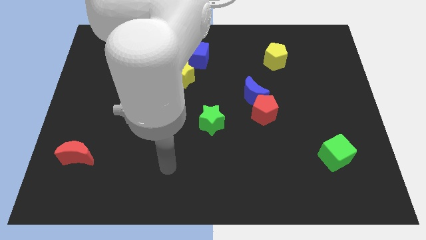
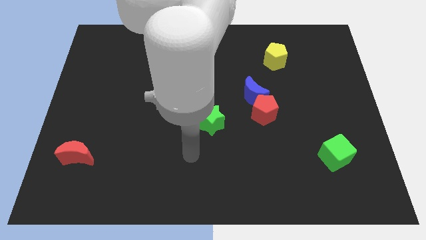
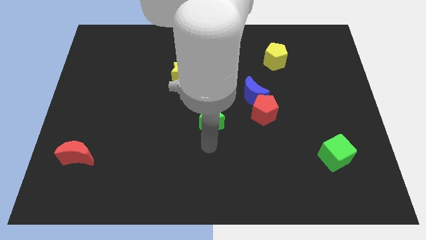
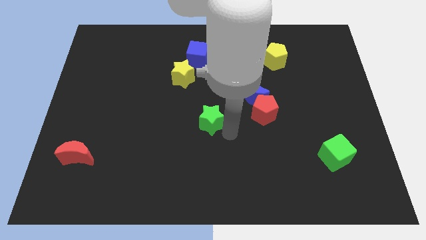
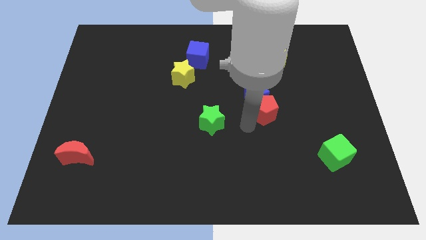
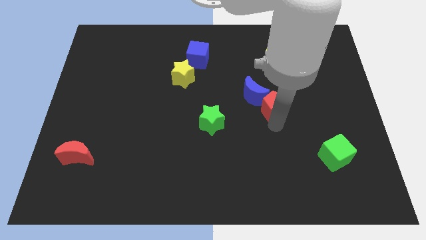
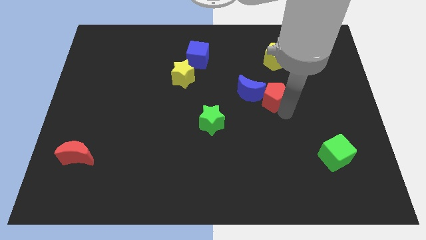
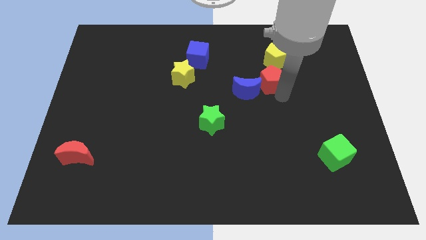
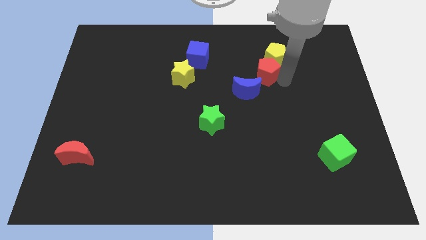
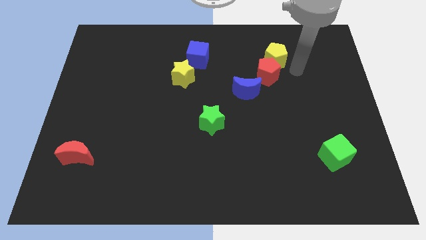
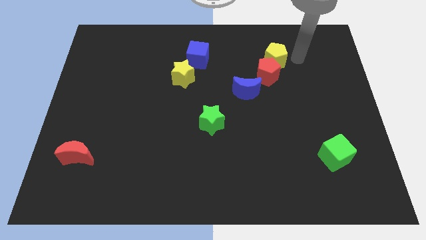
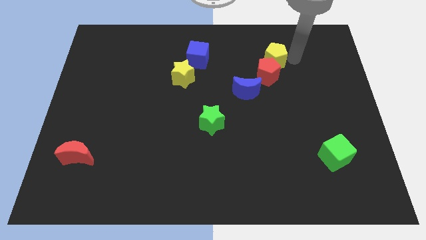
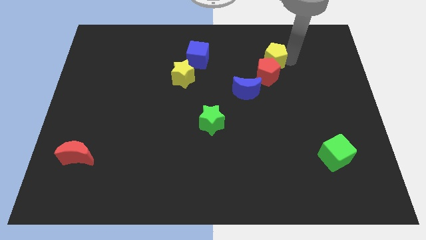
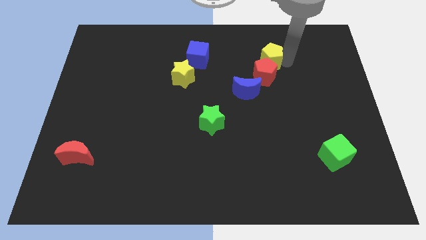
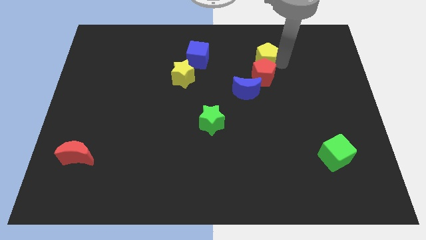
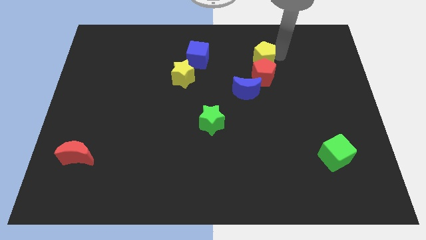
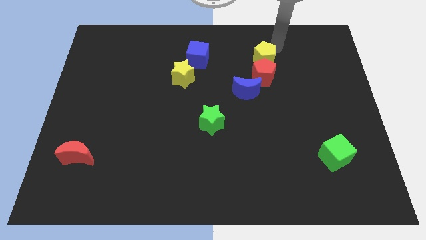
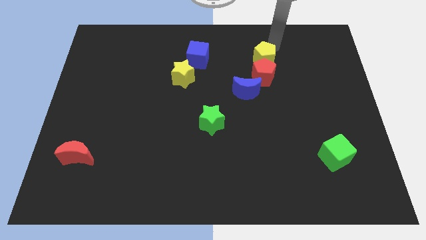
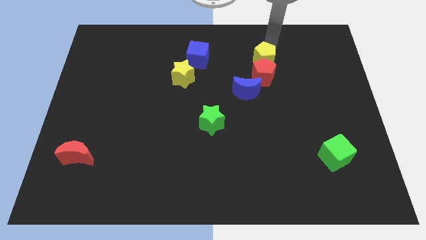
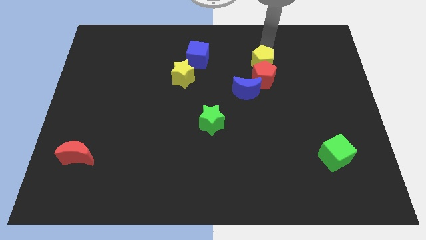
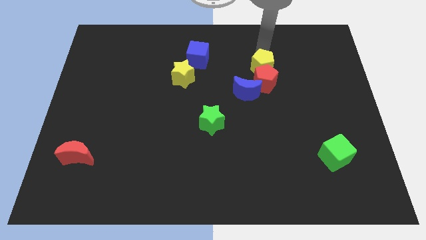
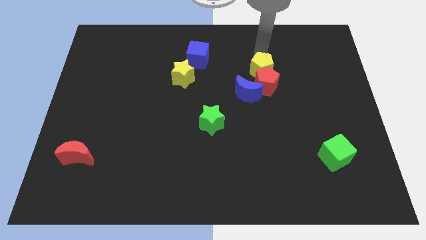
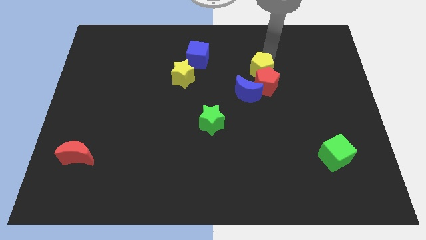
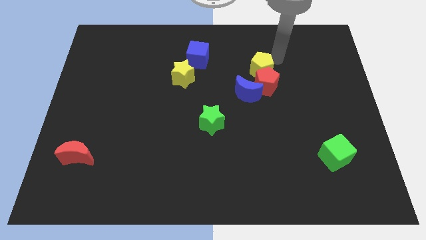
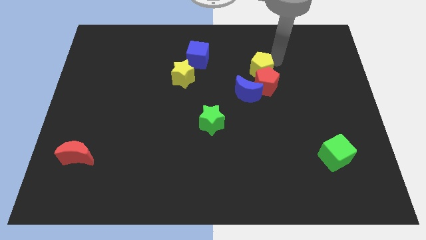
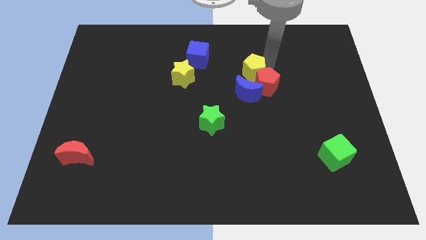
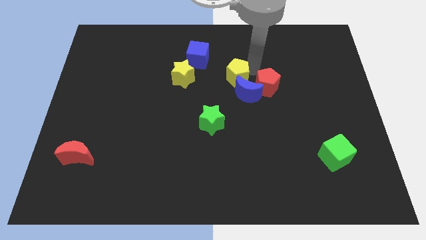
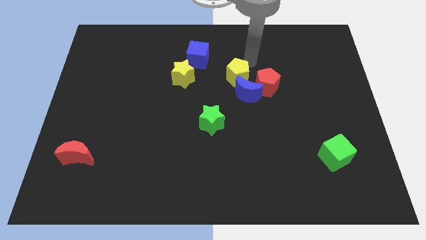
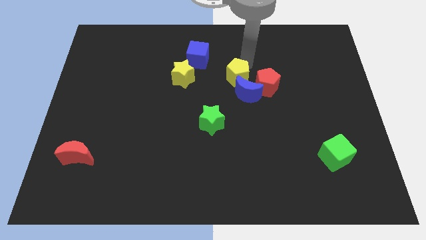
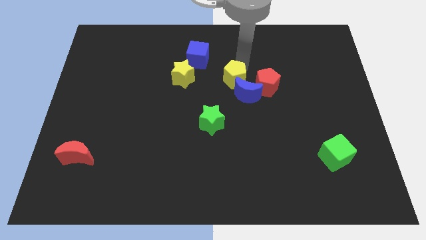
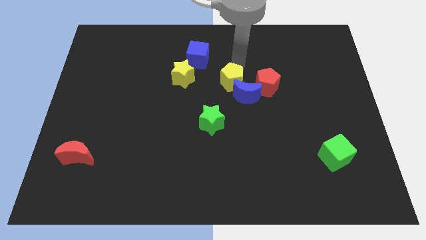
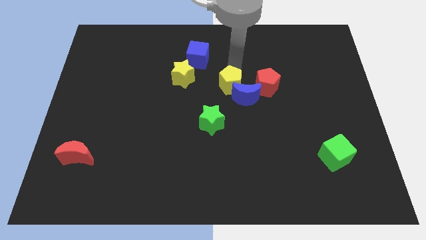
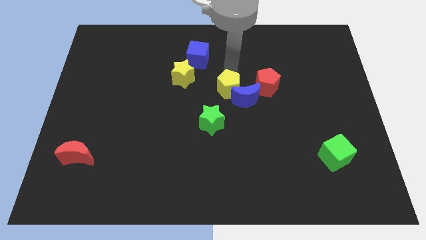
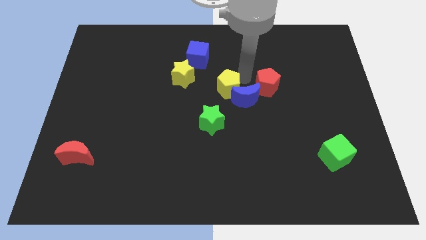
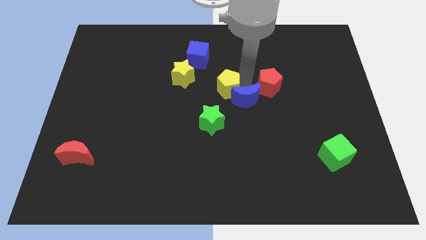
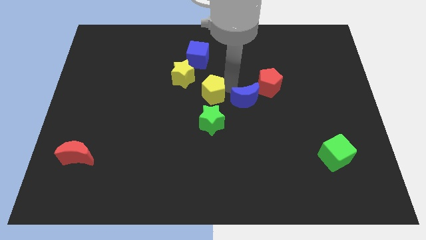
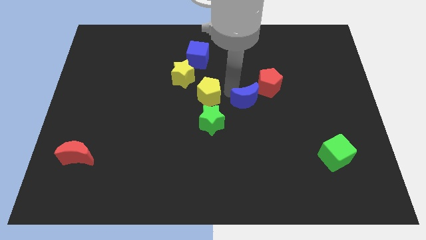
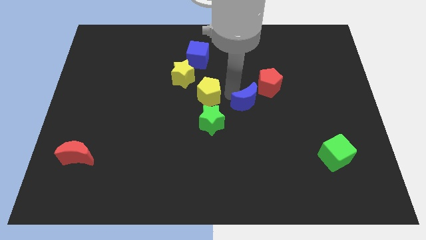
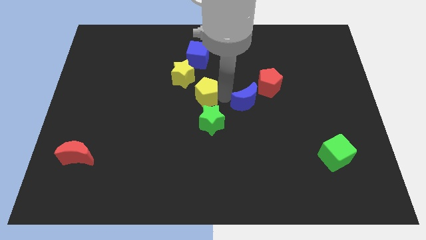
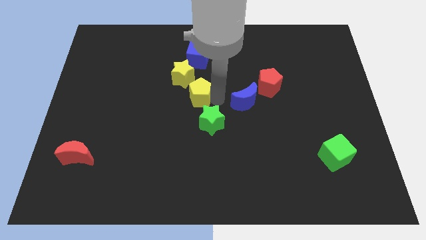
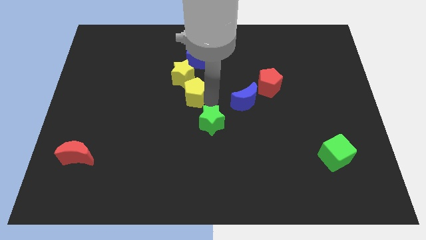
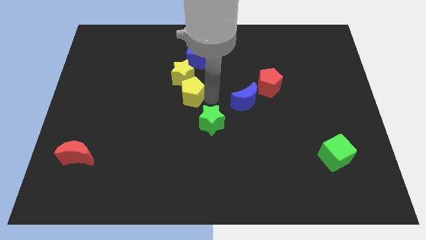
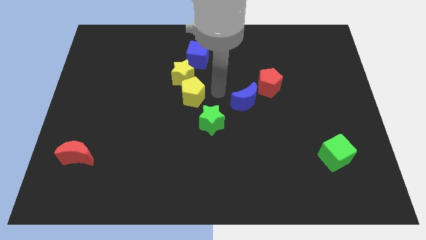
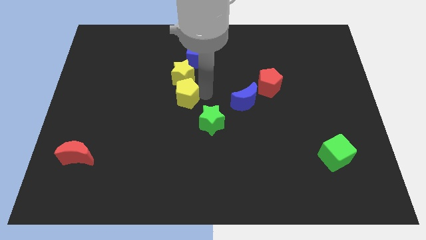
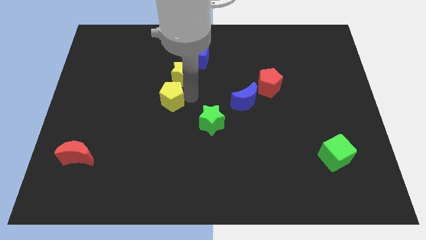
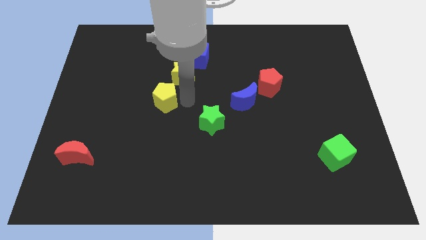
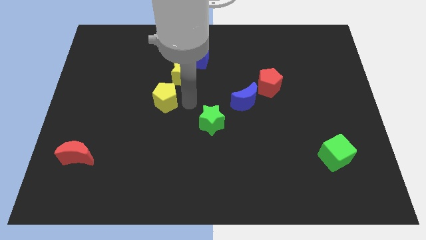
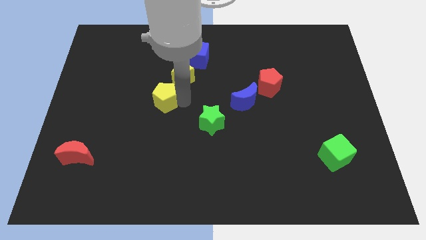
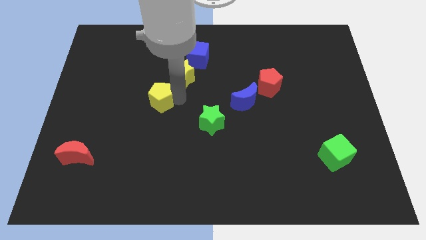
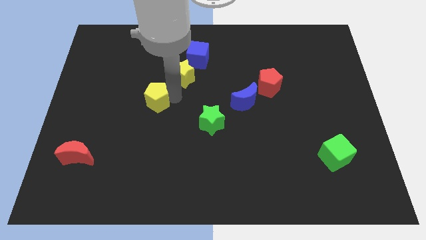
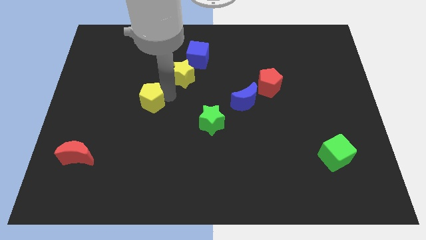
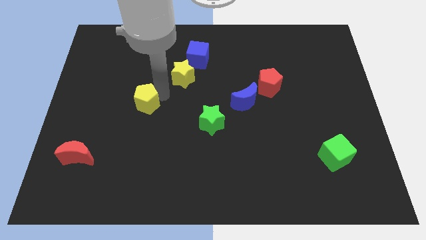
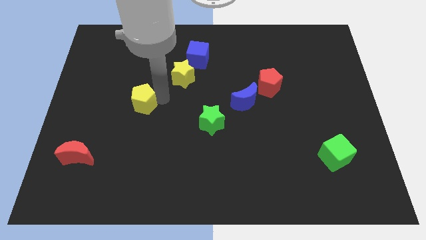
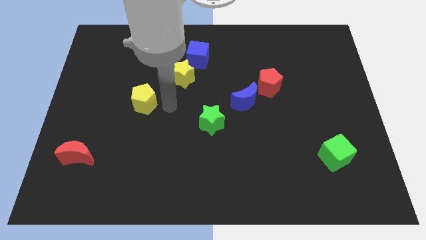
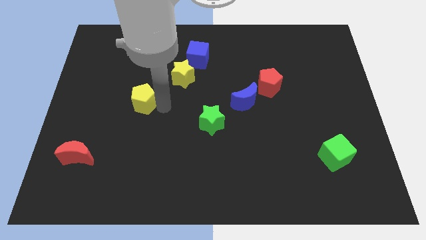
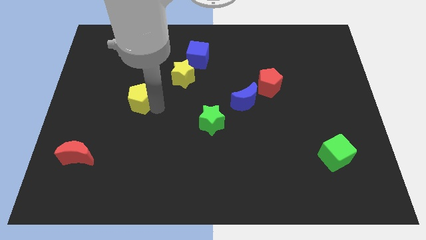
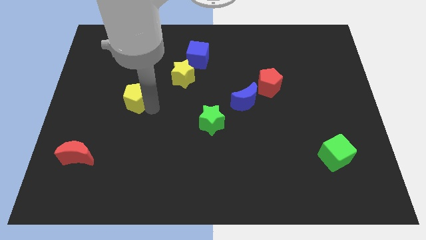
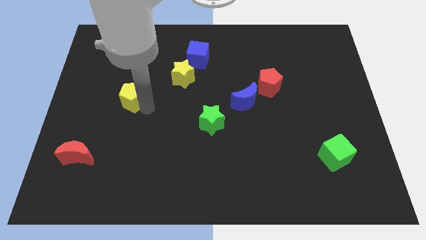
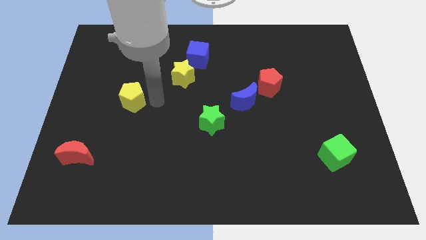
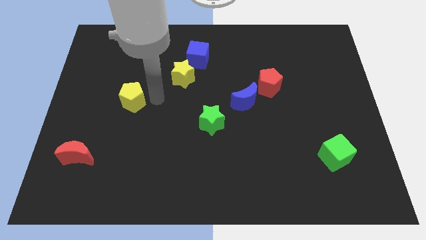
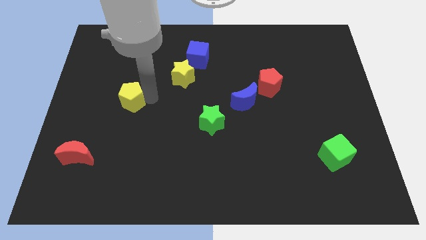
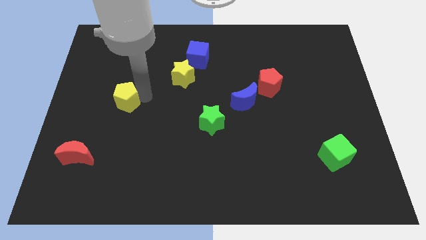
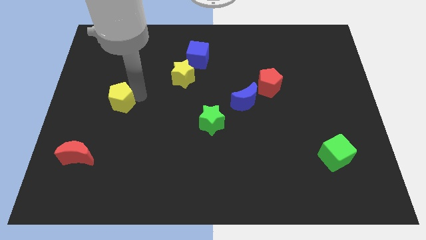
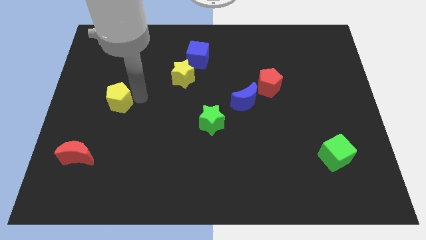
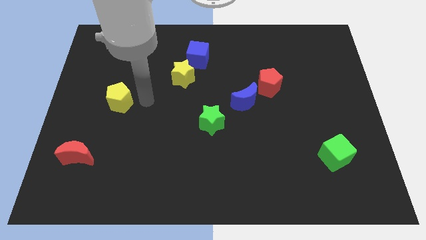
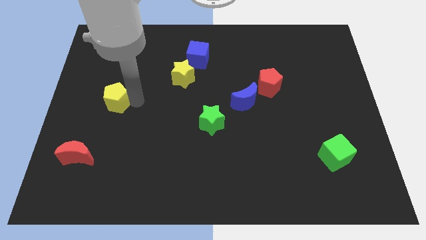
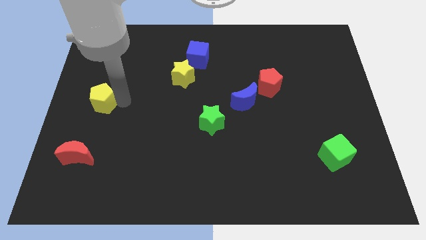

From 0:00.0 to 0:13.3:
push the yellow pentagon to the left side
